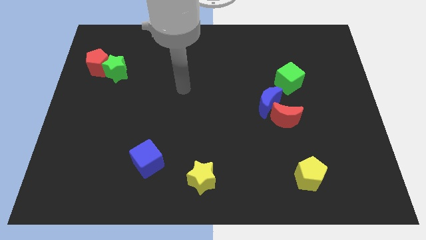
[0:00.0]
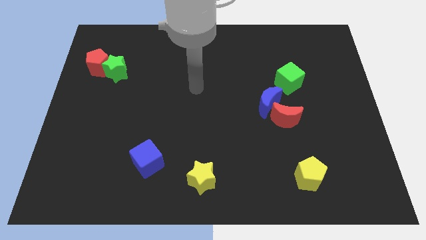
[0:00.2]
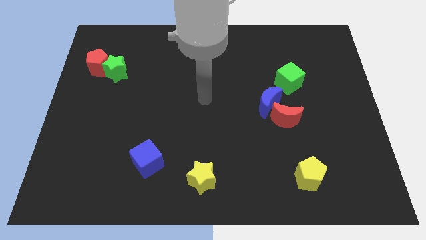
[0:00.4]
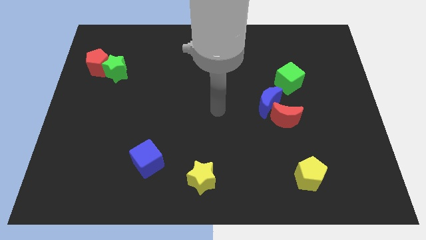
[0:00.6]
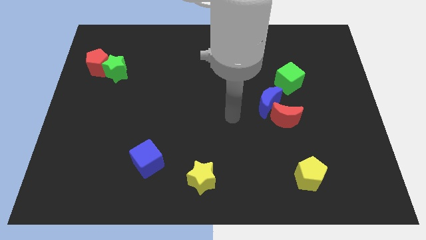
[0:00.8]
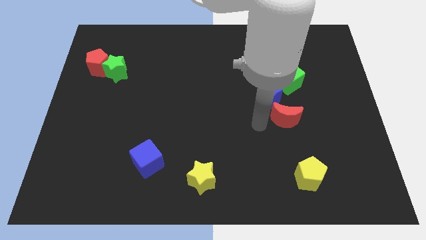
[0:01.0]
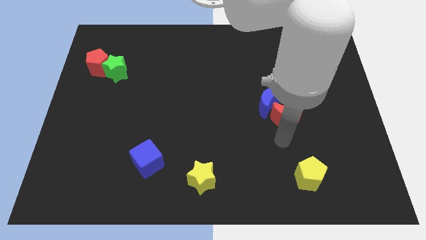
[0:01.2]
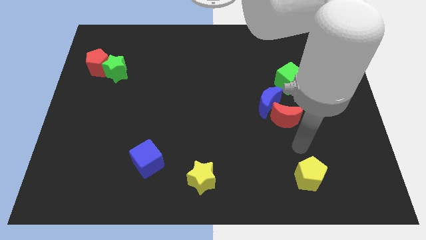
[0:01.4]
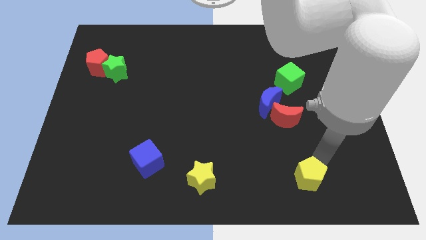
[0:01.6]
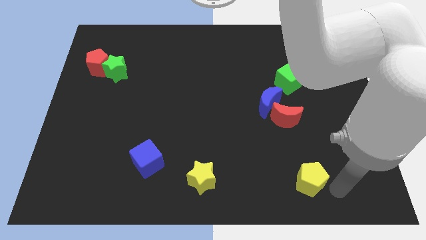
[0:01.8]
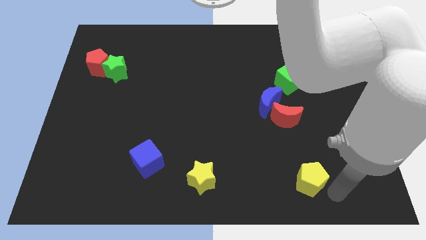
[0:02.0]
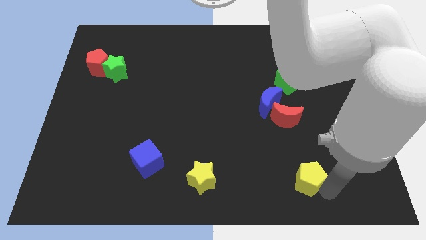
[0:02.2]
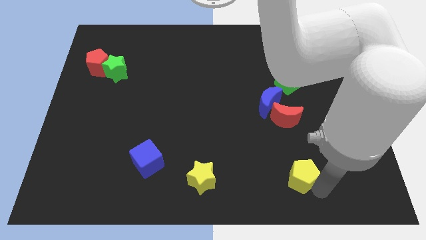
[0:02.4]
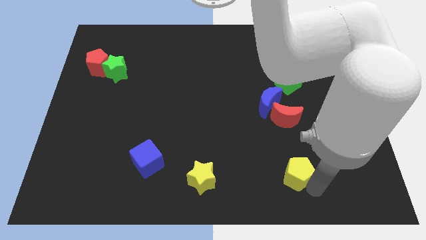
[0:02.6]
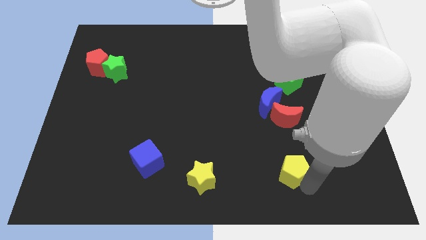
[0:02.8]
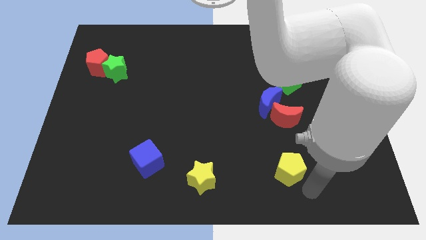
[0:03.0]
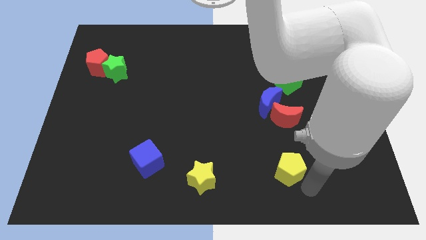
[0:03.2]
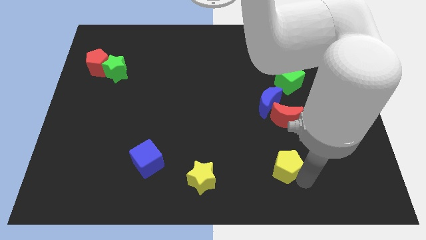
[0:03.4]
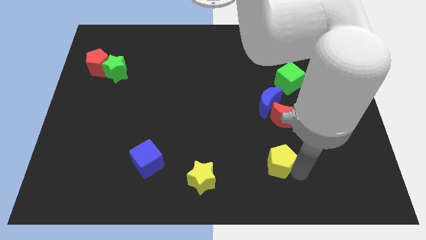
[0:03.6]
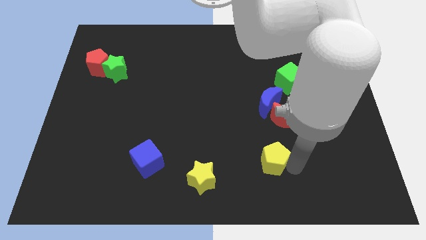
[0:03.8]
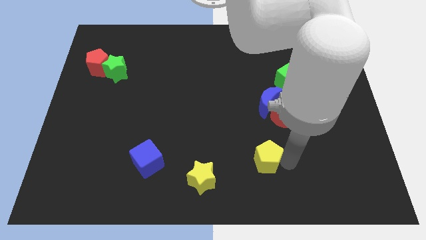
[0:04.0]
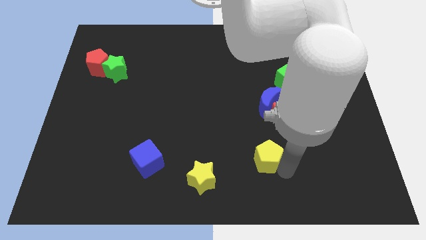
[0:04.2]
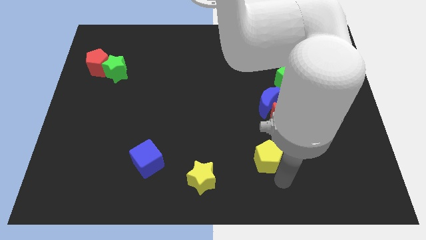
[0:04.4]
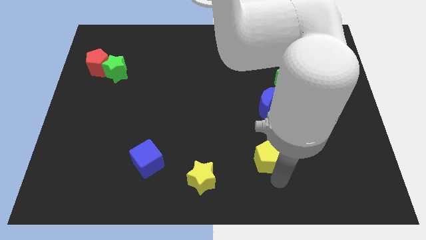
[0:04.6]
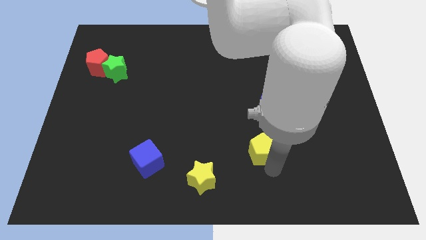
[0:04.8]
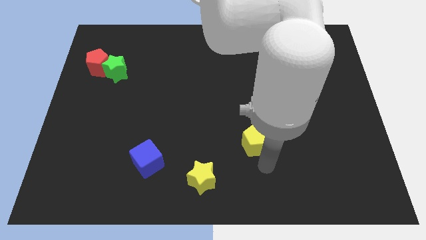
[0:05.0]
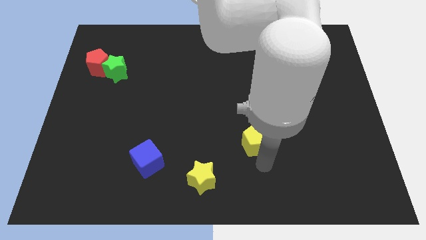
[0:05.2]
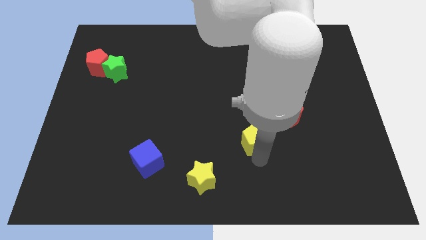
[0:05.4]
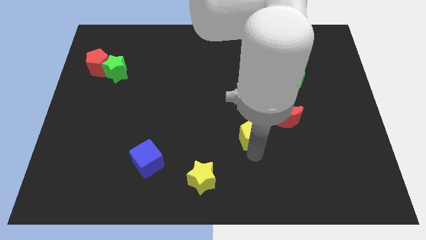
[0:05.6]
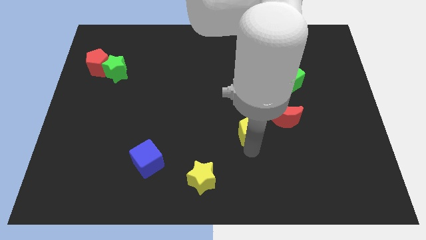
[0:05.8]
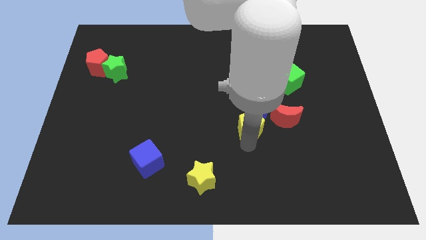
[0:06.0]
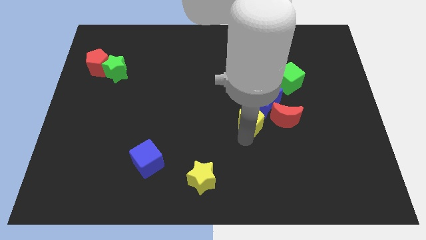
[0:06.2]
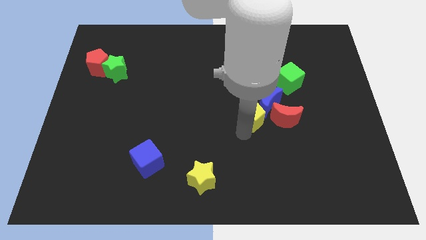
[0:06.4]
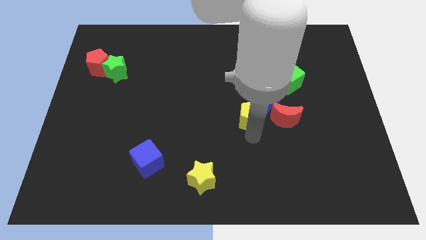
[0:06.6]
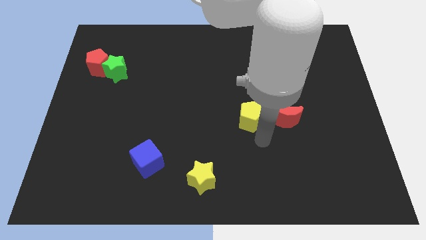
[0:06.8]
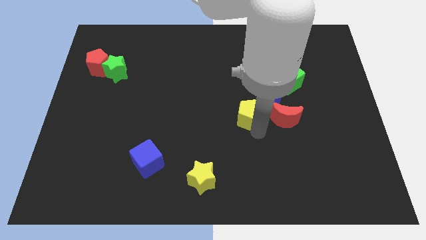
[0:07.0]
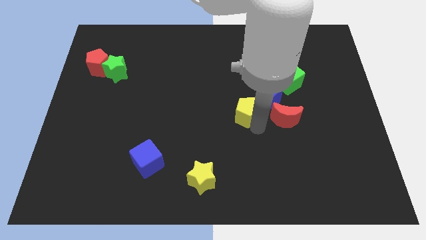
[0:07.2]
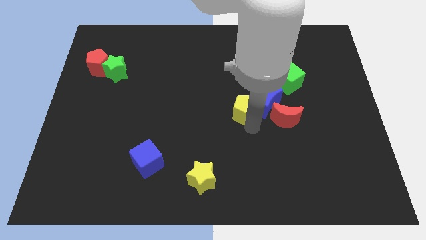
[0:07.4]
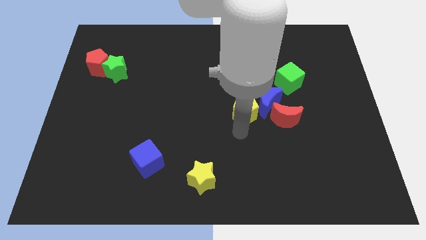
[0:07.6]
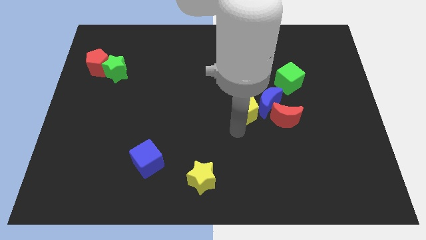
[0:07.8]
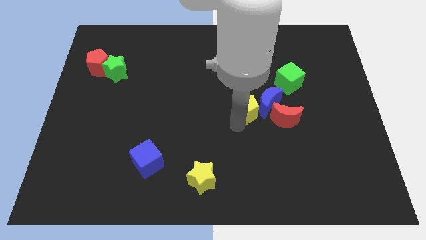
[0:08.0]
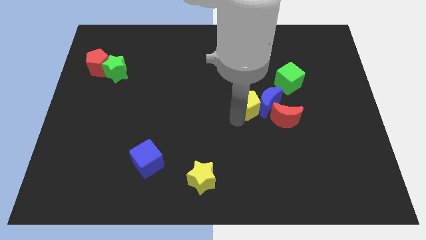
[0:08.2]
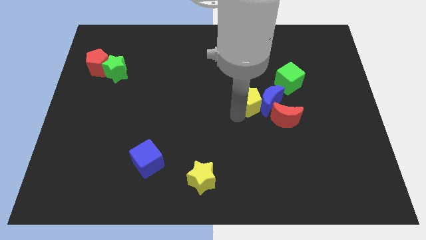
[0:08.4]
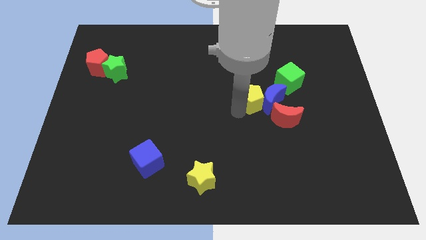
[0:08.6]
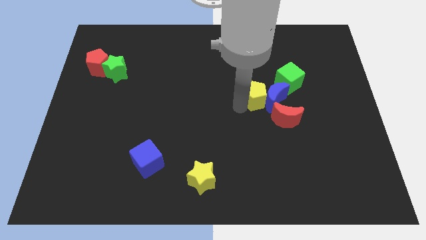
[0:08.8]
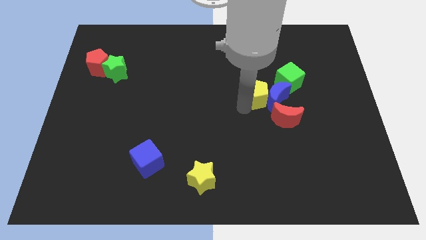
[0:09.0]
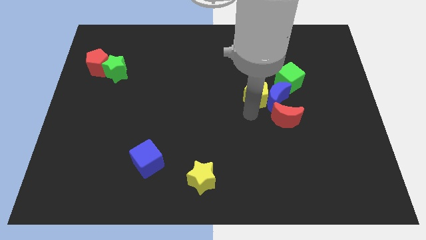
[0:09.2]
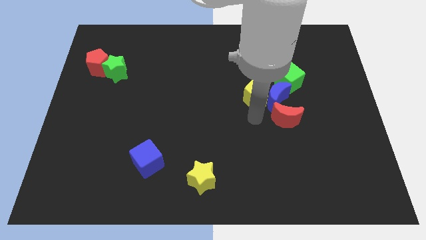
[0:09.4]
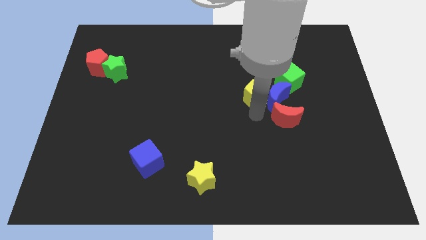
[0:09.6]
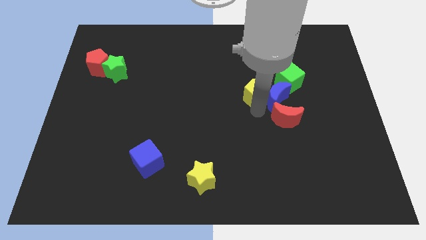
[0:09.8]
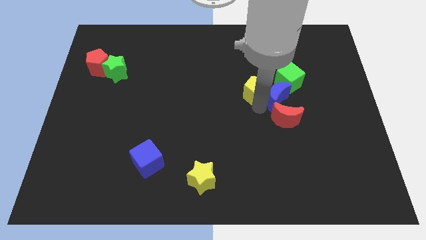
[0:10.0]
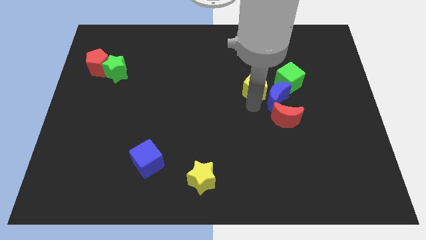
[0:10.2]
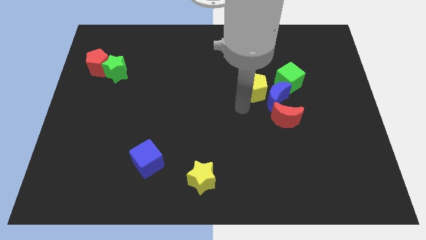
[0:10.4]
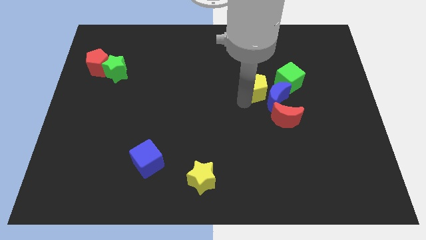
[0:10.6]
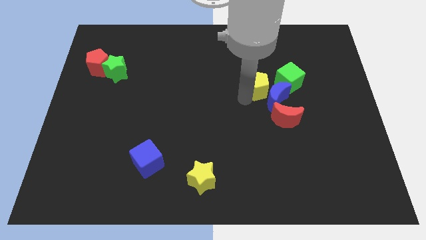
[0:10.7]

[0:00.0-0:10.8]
move the yellow pentagon above the blue moon

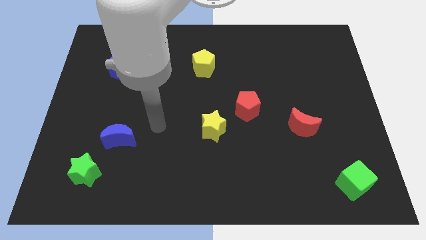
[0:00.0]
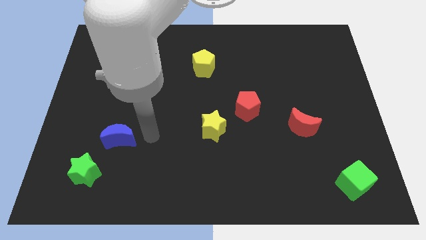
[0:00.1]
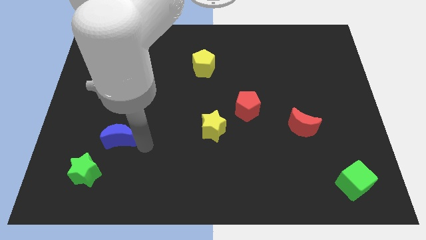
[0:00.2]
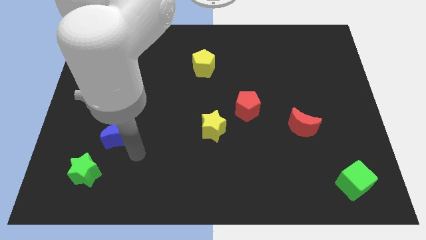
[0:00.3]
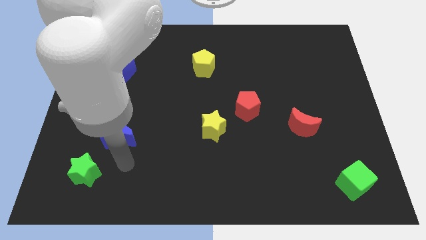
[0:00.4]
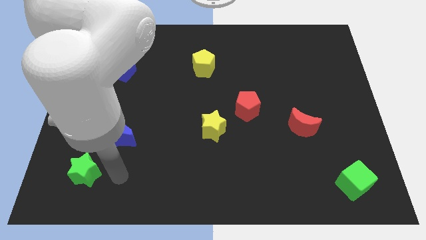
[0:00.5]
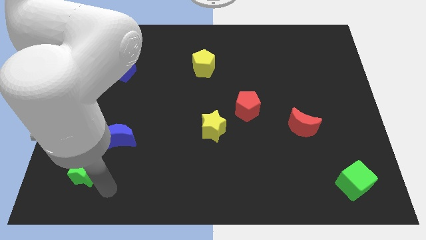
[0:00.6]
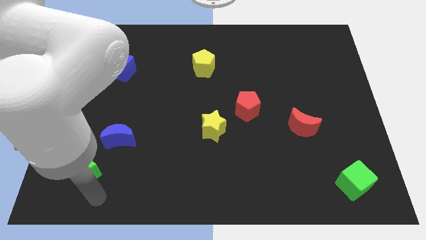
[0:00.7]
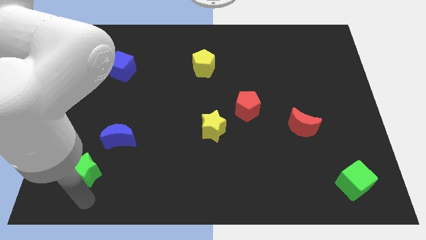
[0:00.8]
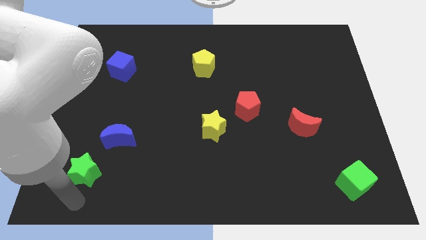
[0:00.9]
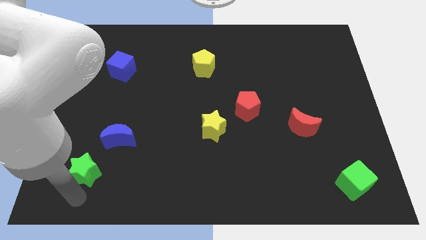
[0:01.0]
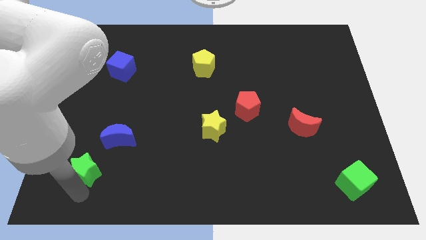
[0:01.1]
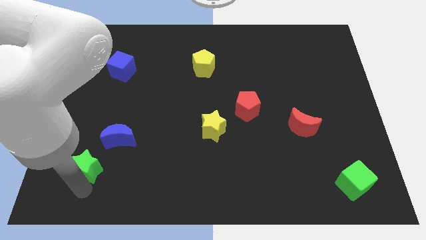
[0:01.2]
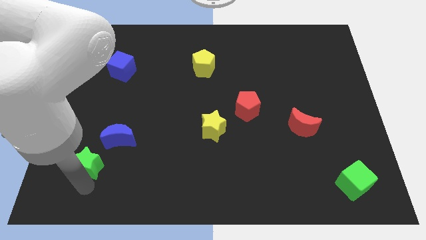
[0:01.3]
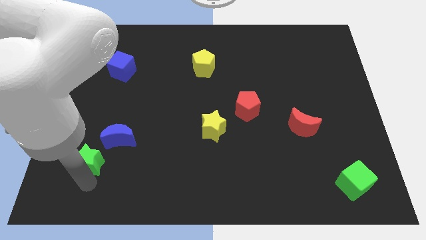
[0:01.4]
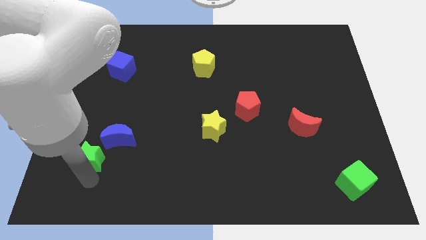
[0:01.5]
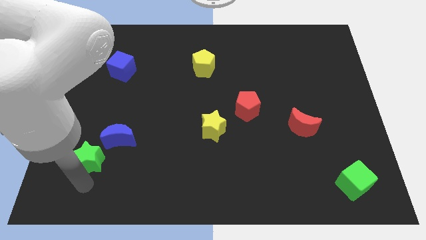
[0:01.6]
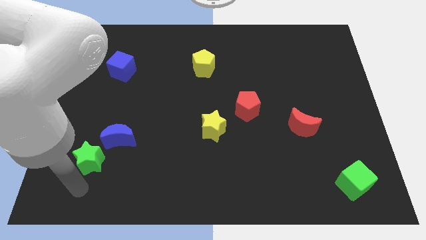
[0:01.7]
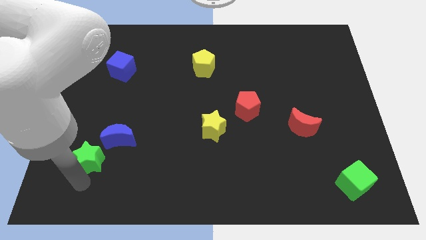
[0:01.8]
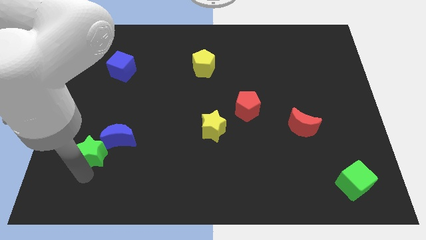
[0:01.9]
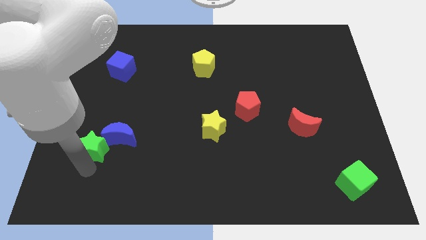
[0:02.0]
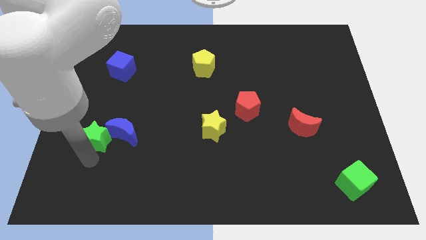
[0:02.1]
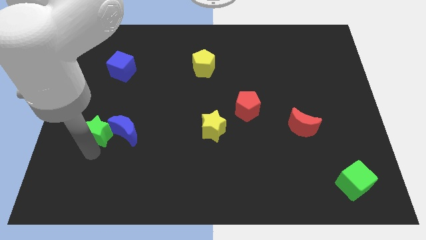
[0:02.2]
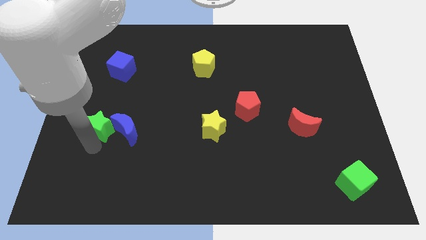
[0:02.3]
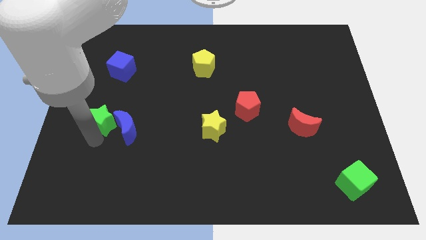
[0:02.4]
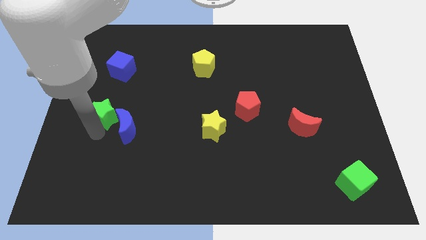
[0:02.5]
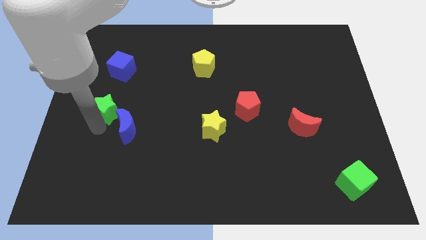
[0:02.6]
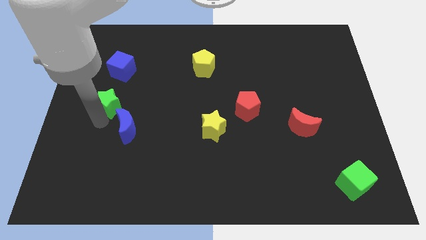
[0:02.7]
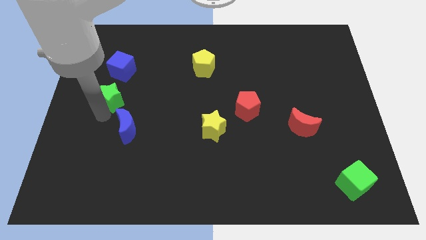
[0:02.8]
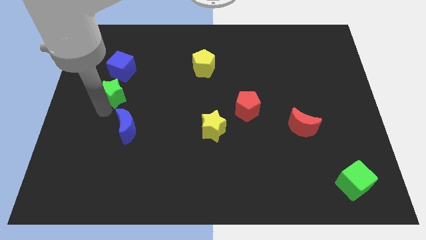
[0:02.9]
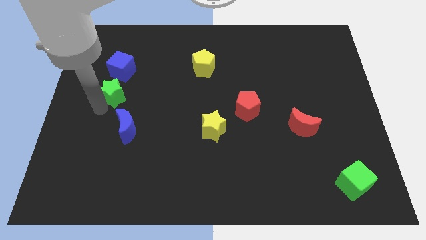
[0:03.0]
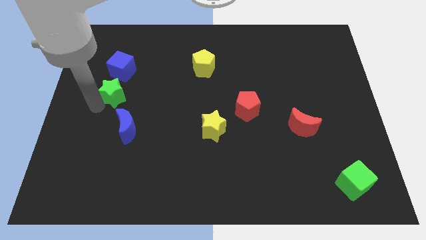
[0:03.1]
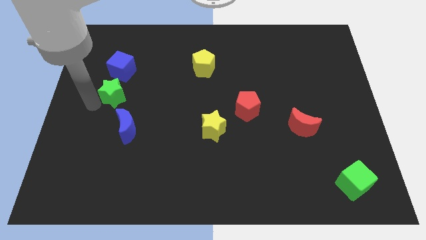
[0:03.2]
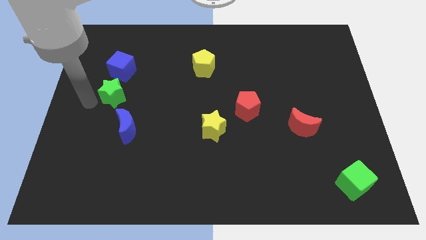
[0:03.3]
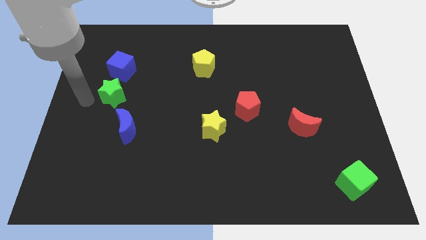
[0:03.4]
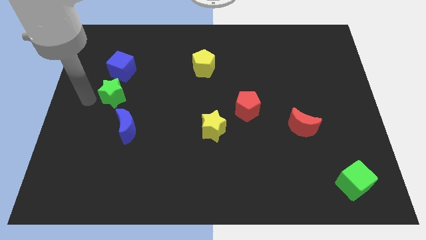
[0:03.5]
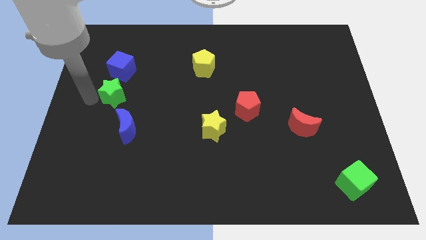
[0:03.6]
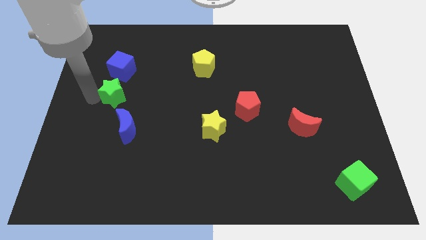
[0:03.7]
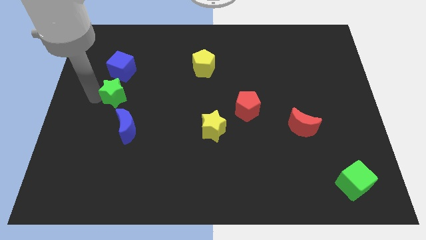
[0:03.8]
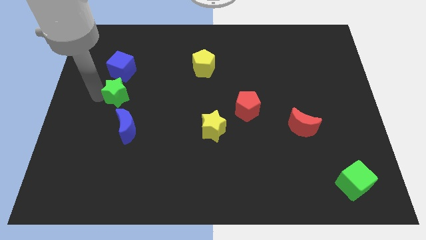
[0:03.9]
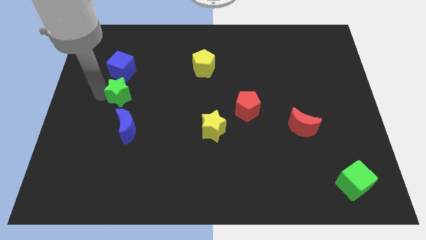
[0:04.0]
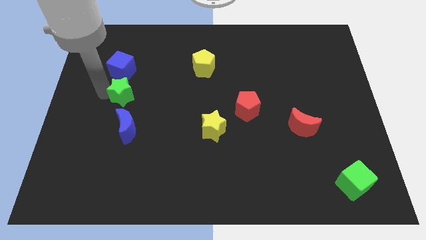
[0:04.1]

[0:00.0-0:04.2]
put the green star diagonally down and to the right of the blue cube
